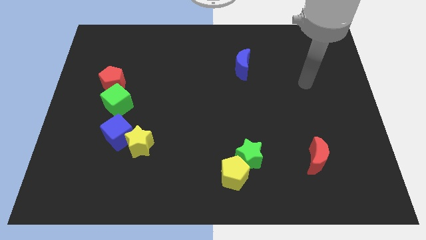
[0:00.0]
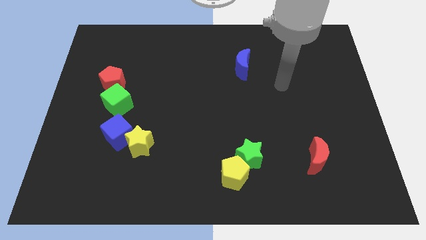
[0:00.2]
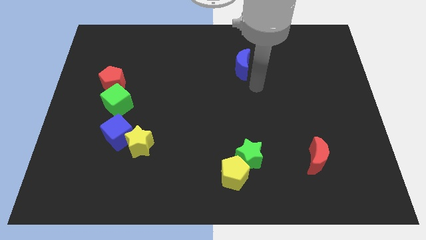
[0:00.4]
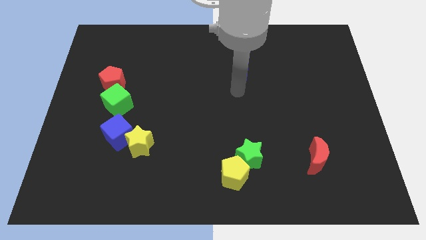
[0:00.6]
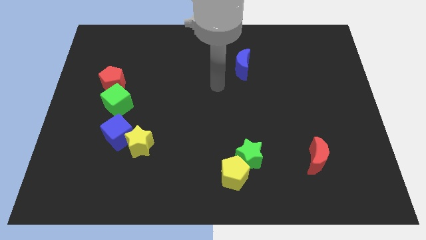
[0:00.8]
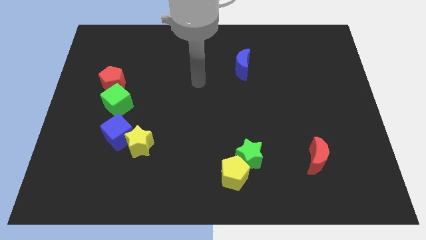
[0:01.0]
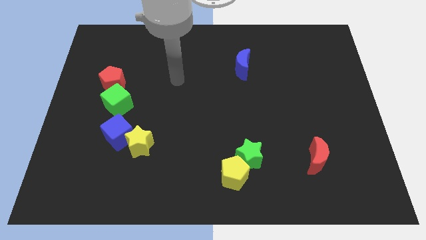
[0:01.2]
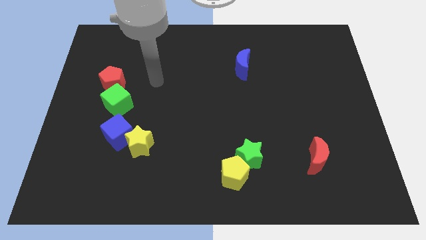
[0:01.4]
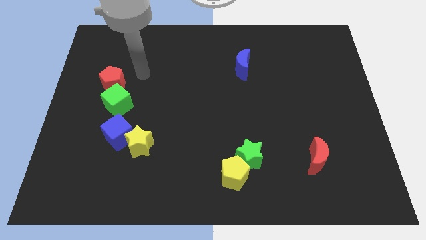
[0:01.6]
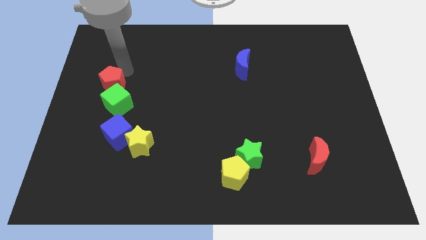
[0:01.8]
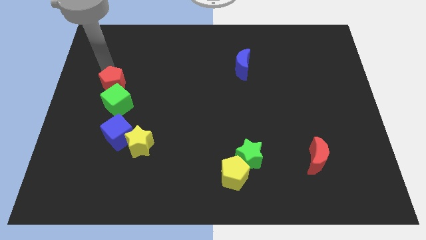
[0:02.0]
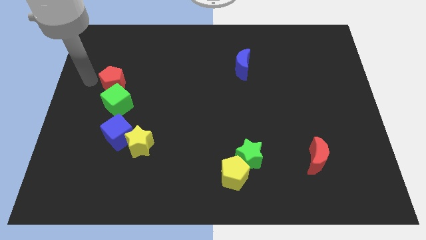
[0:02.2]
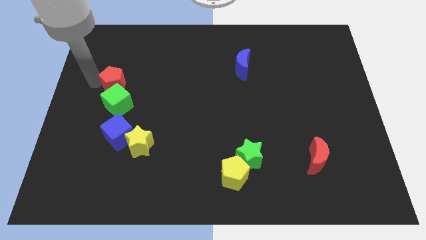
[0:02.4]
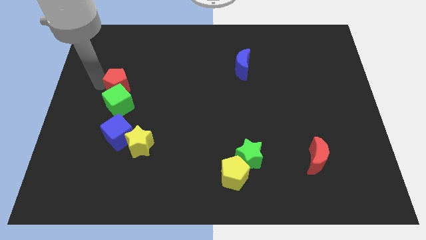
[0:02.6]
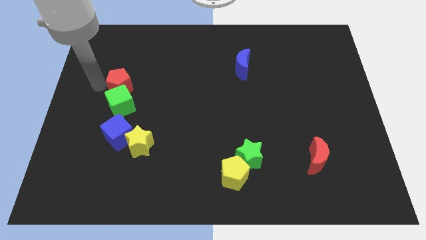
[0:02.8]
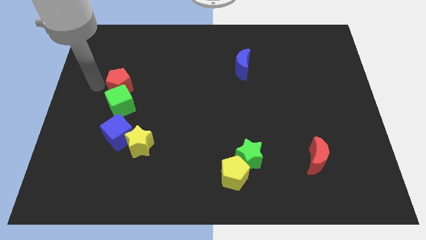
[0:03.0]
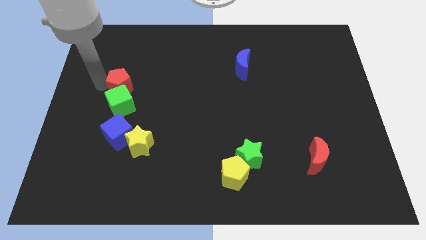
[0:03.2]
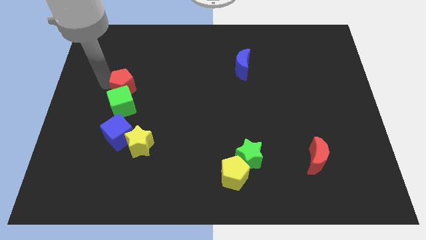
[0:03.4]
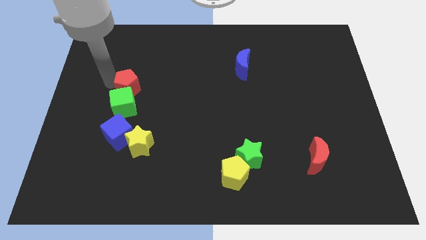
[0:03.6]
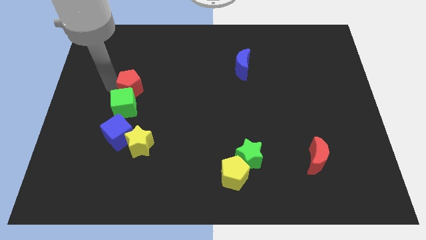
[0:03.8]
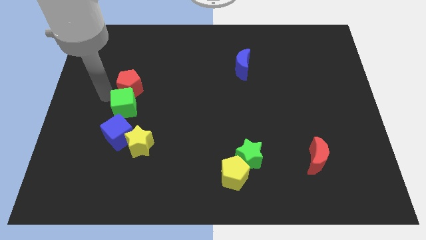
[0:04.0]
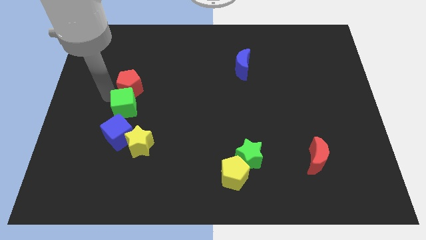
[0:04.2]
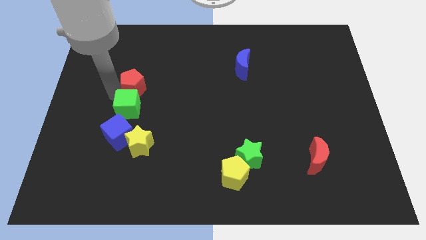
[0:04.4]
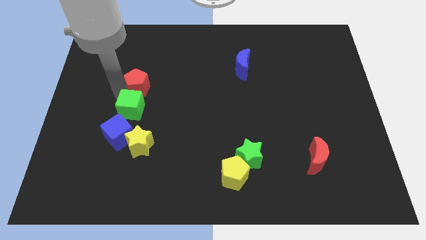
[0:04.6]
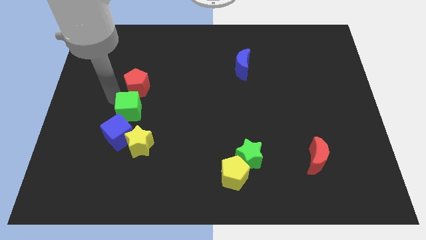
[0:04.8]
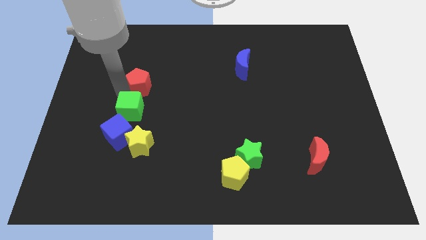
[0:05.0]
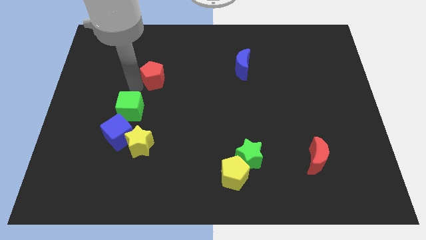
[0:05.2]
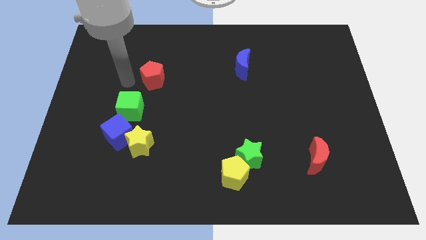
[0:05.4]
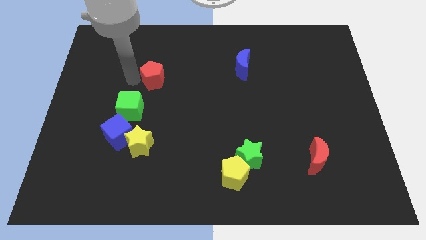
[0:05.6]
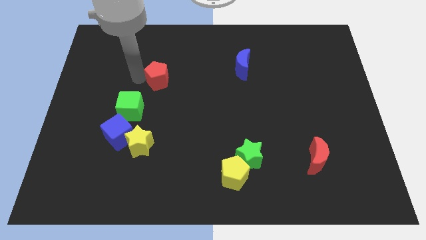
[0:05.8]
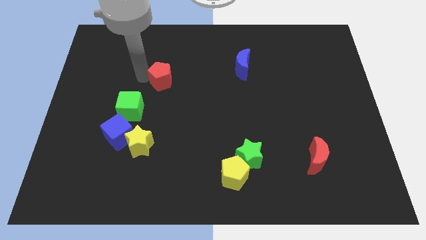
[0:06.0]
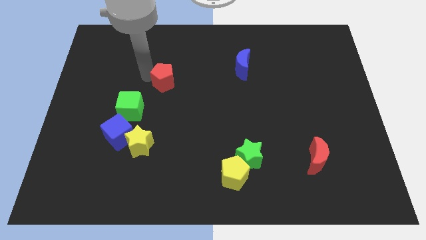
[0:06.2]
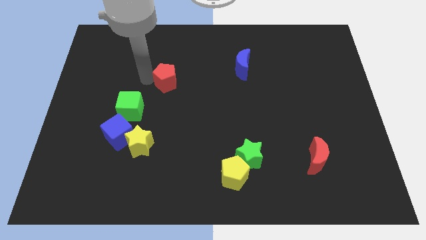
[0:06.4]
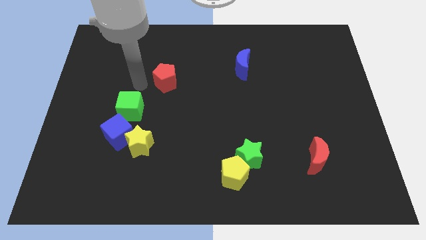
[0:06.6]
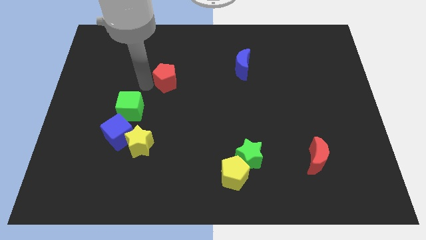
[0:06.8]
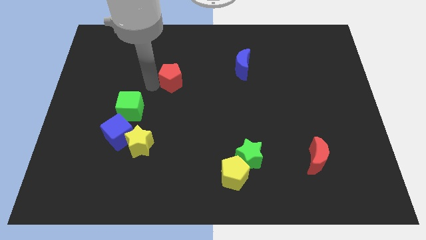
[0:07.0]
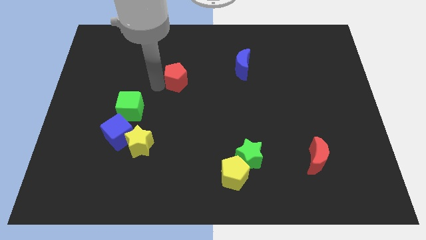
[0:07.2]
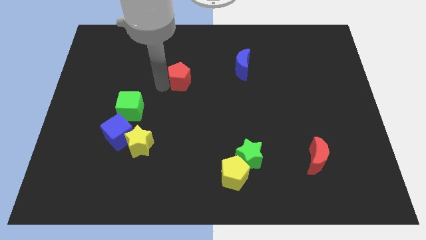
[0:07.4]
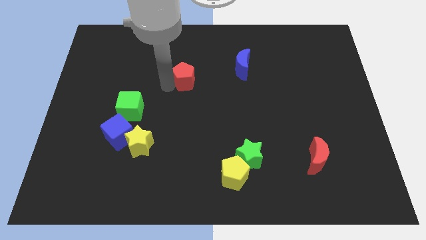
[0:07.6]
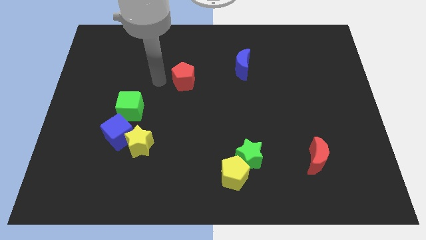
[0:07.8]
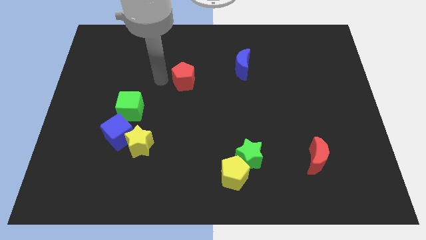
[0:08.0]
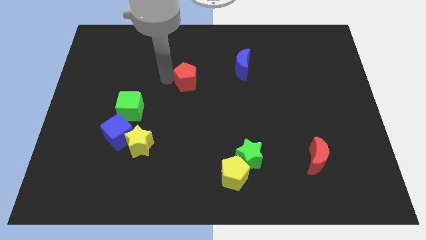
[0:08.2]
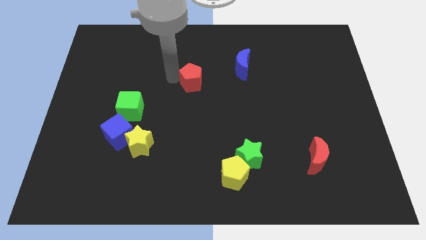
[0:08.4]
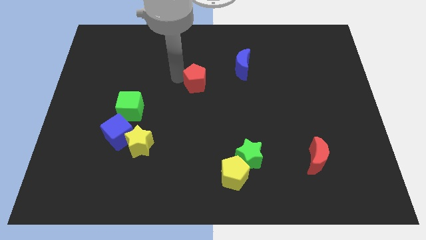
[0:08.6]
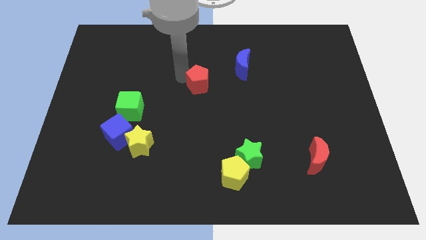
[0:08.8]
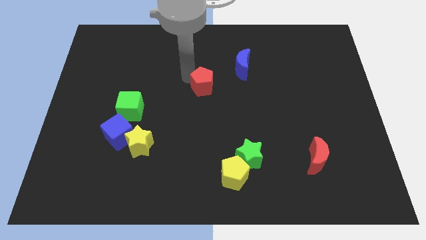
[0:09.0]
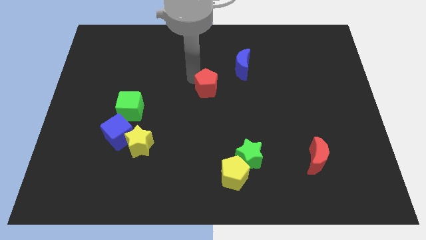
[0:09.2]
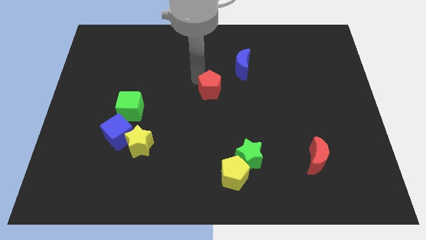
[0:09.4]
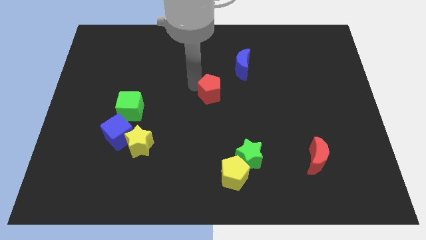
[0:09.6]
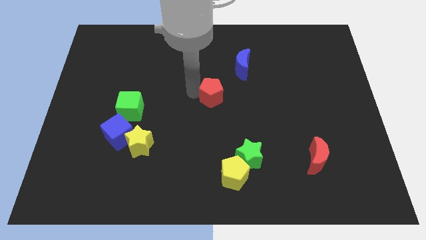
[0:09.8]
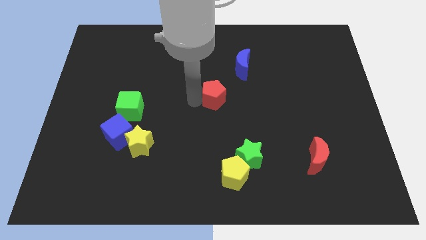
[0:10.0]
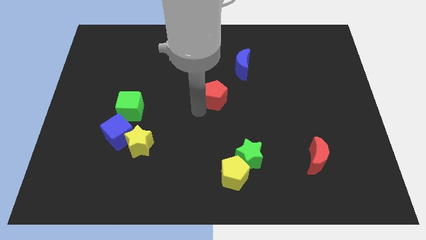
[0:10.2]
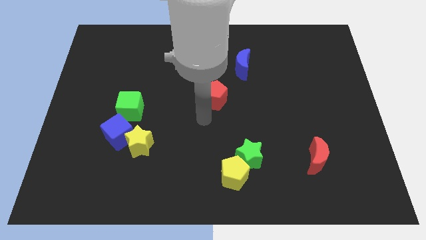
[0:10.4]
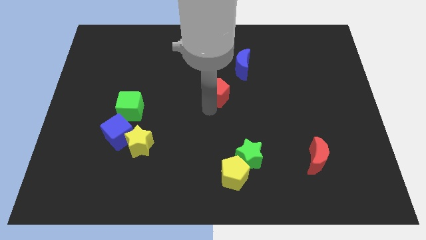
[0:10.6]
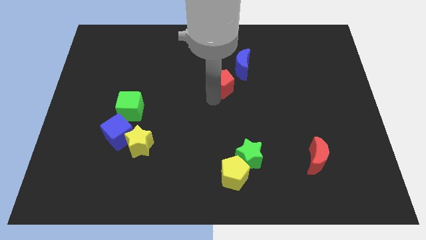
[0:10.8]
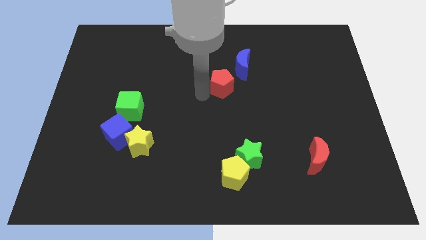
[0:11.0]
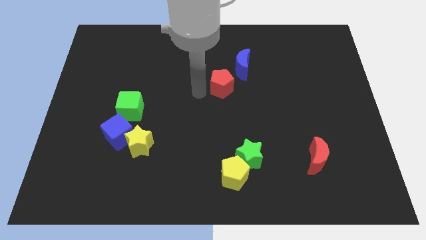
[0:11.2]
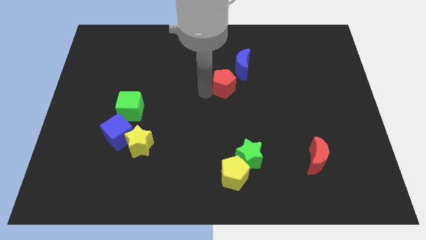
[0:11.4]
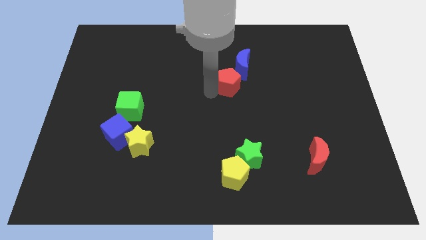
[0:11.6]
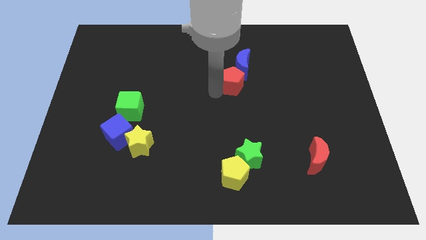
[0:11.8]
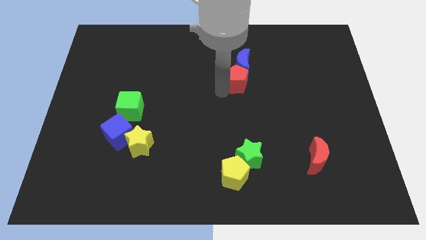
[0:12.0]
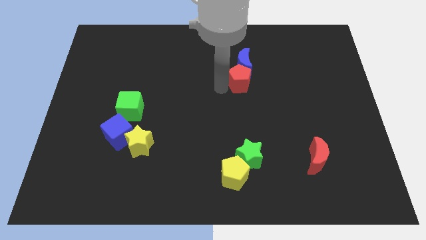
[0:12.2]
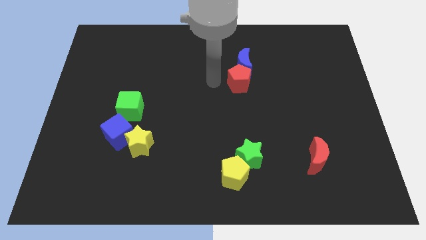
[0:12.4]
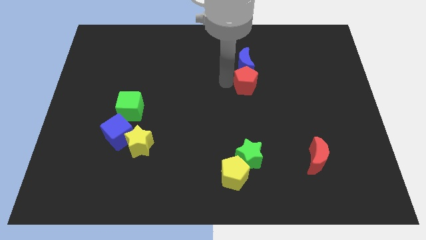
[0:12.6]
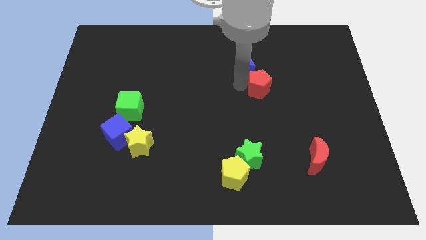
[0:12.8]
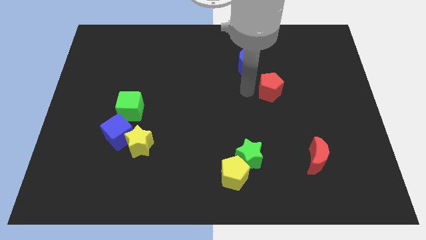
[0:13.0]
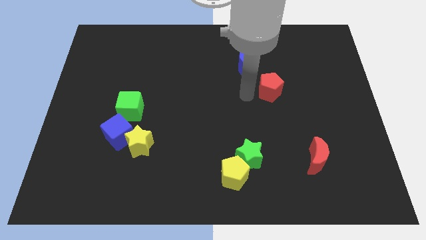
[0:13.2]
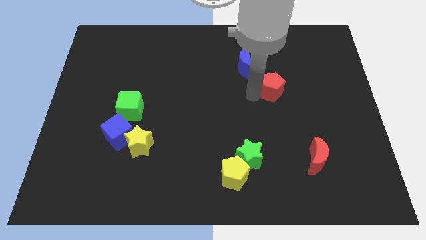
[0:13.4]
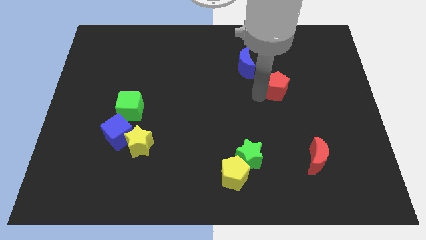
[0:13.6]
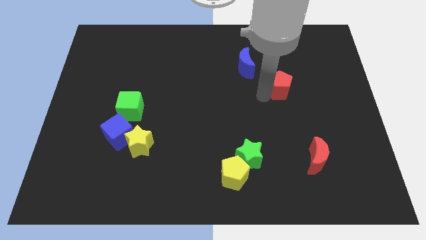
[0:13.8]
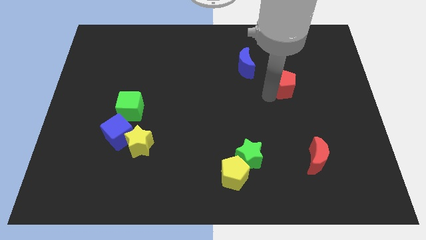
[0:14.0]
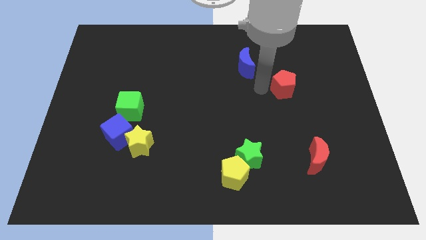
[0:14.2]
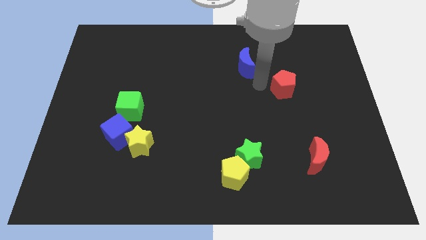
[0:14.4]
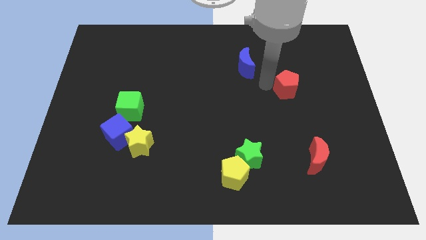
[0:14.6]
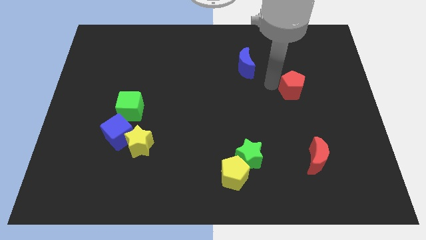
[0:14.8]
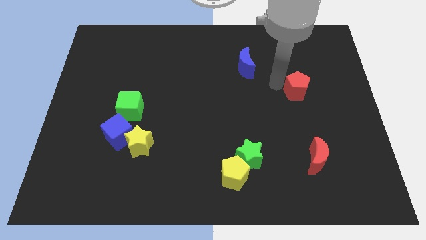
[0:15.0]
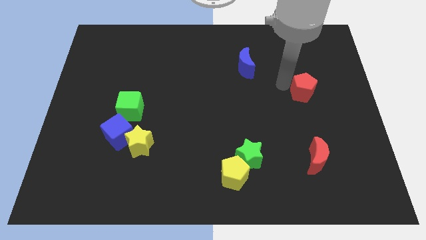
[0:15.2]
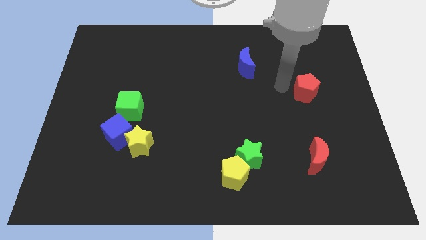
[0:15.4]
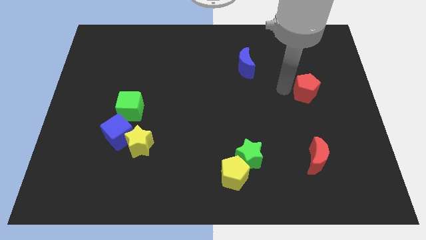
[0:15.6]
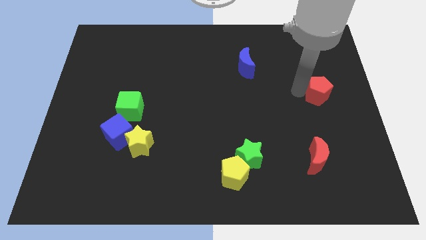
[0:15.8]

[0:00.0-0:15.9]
put the red pentagon to the center right
